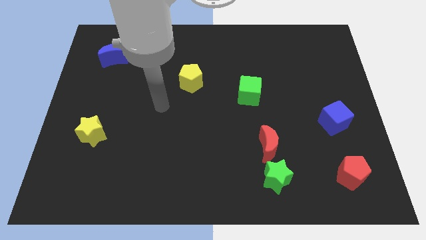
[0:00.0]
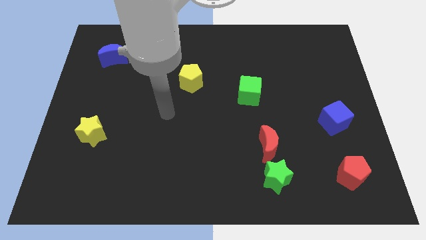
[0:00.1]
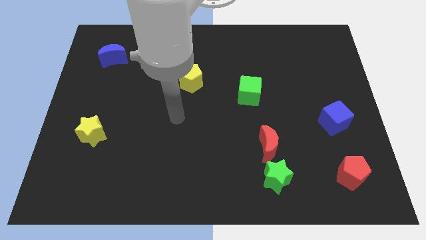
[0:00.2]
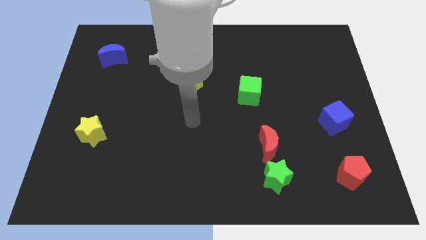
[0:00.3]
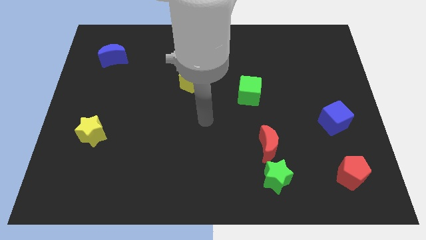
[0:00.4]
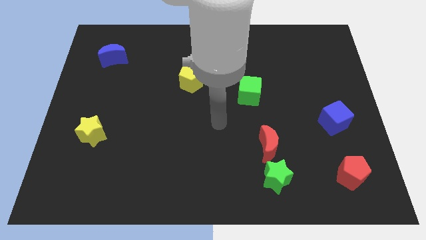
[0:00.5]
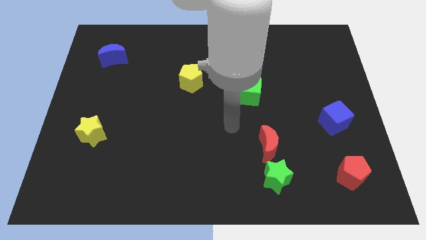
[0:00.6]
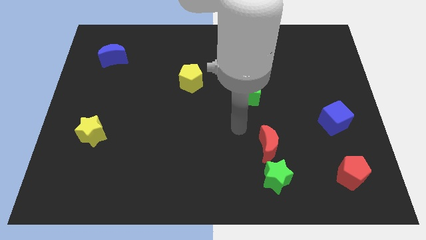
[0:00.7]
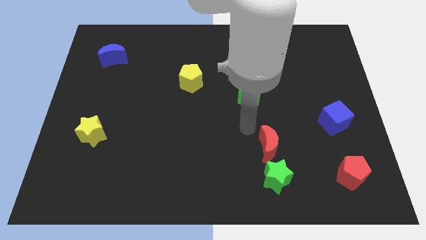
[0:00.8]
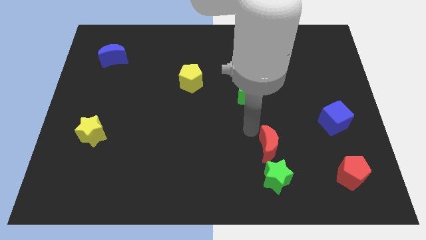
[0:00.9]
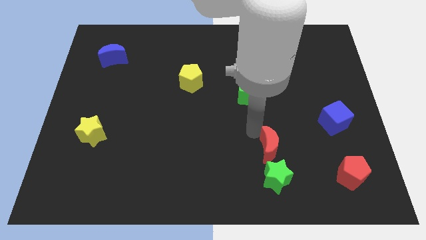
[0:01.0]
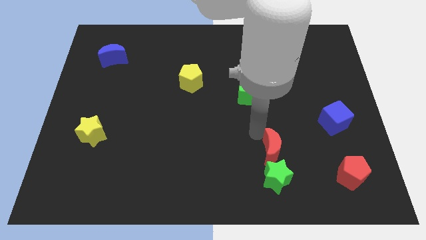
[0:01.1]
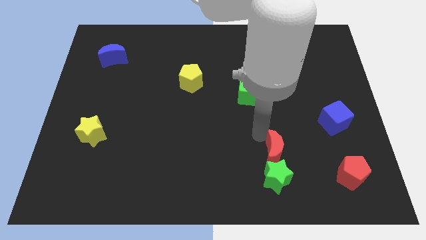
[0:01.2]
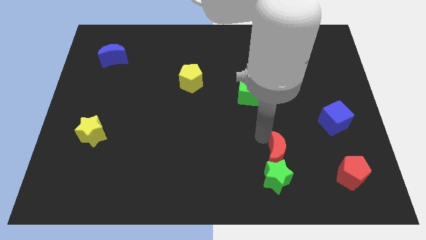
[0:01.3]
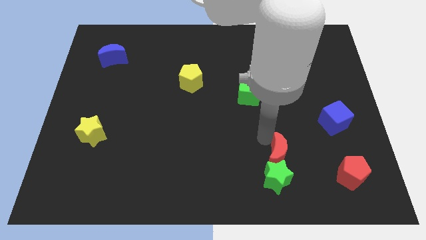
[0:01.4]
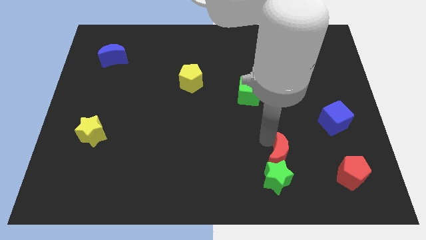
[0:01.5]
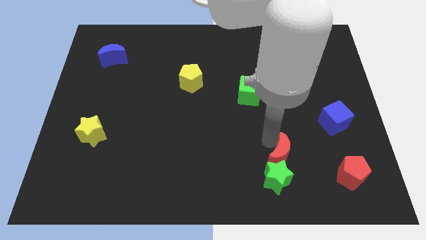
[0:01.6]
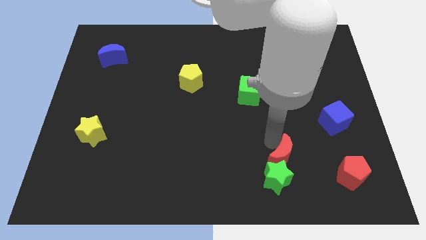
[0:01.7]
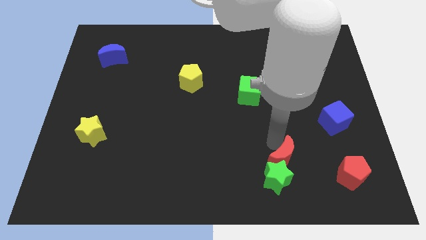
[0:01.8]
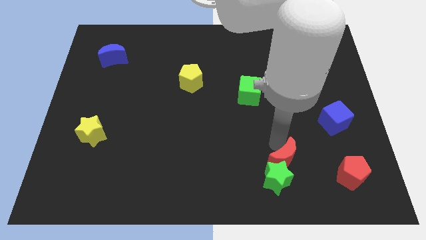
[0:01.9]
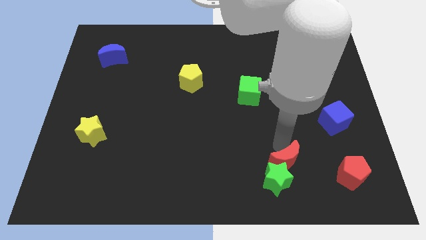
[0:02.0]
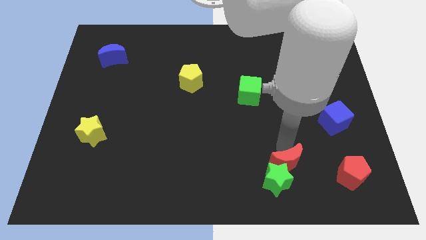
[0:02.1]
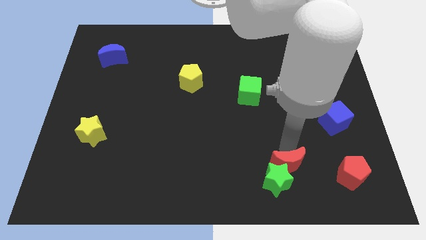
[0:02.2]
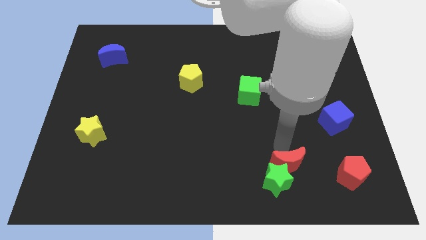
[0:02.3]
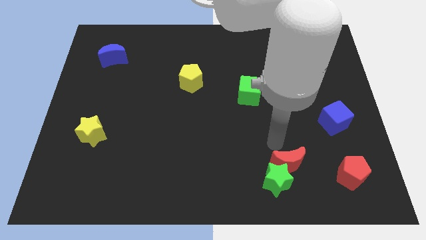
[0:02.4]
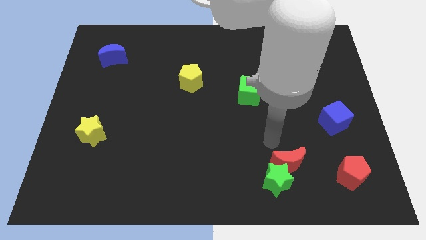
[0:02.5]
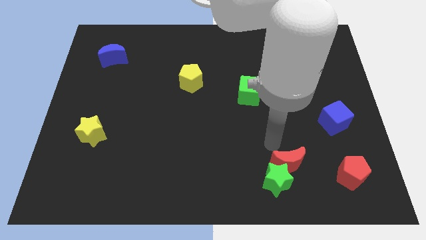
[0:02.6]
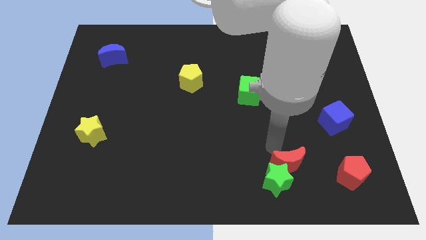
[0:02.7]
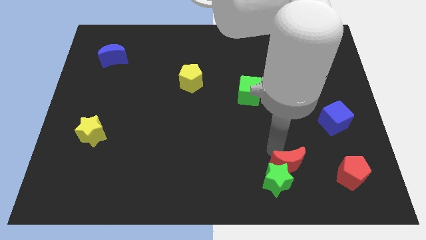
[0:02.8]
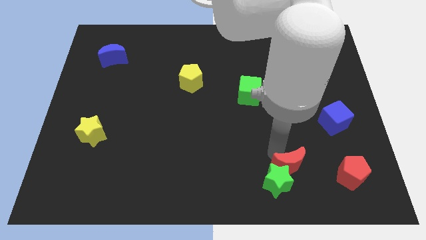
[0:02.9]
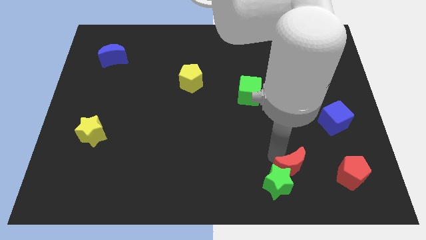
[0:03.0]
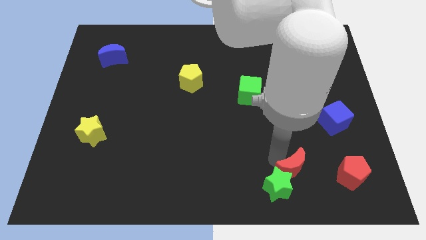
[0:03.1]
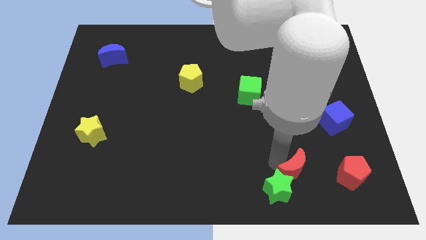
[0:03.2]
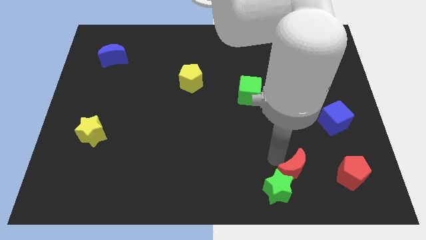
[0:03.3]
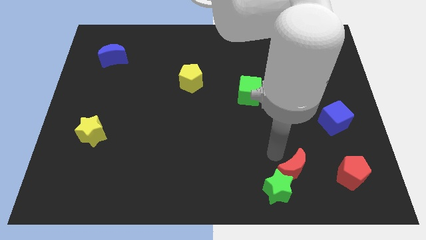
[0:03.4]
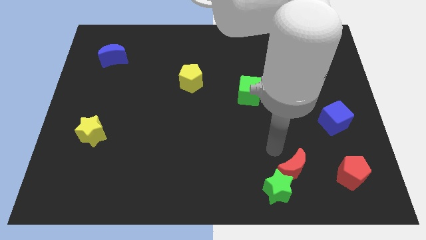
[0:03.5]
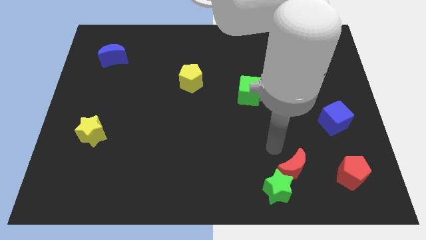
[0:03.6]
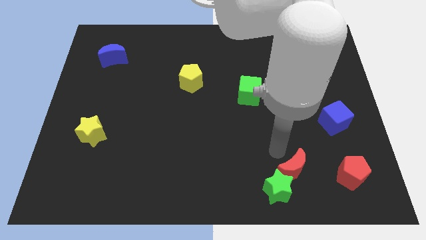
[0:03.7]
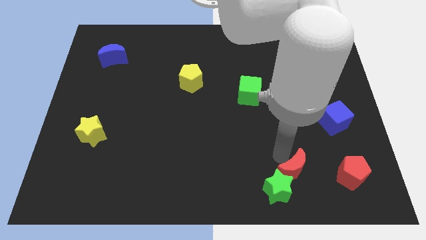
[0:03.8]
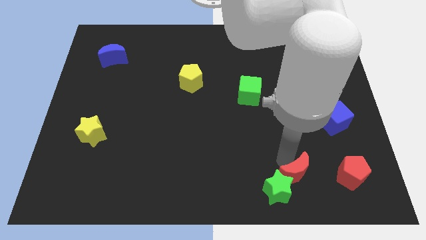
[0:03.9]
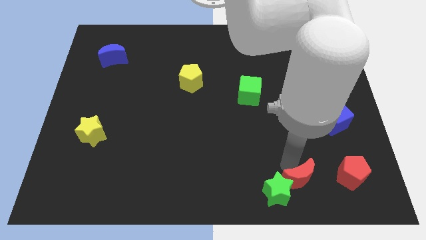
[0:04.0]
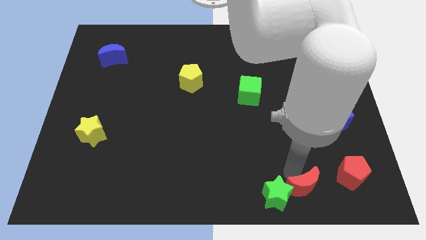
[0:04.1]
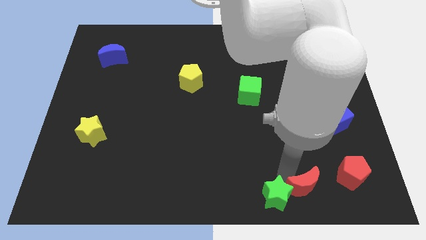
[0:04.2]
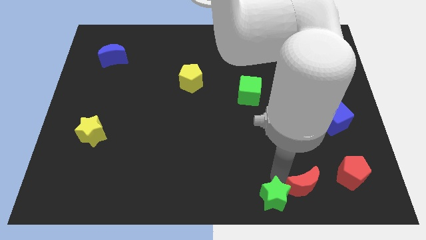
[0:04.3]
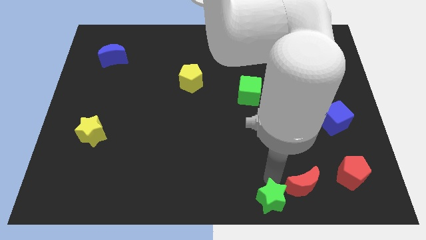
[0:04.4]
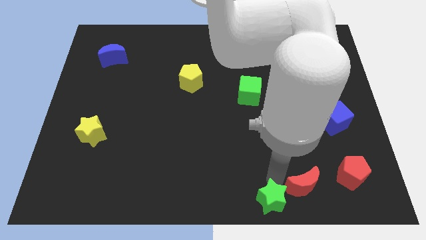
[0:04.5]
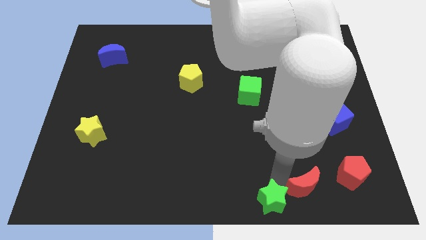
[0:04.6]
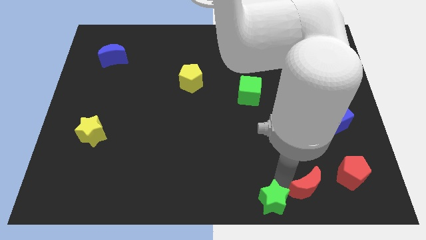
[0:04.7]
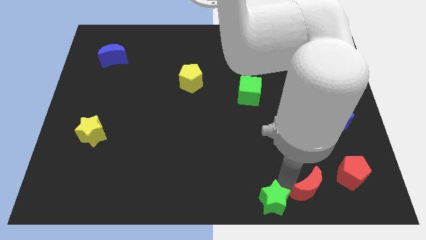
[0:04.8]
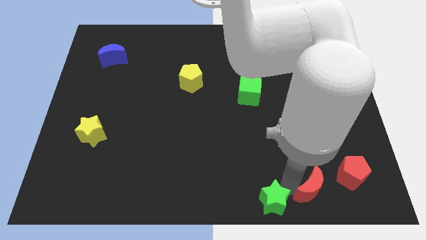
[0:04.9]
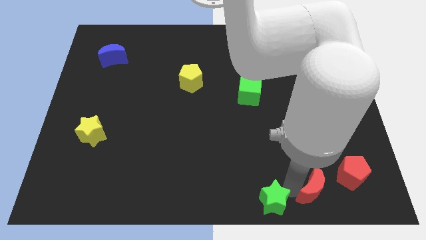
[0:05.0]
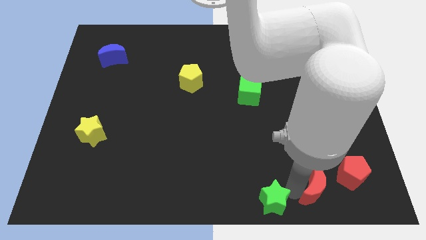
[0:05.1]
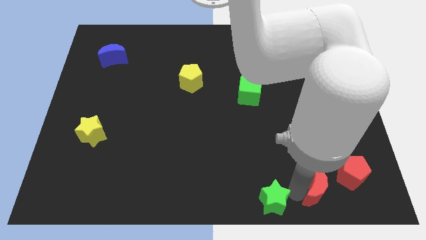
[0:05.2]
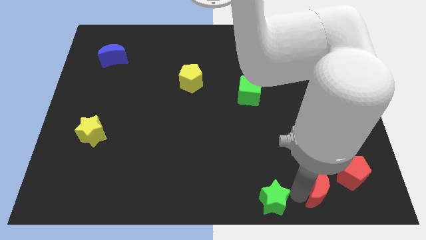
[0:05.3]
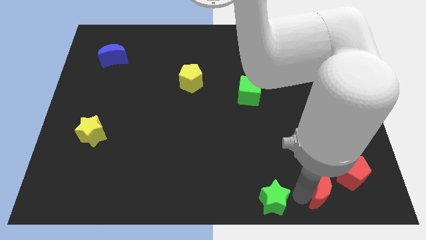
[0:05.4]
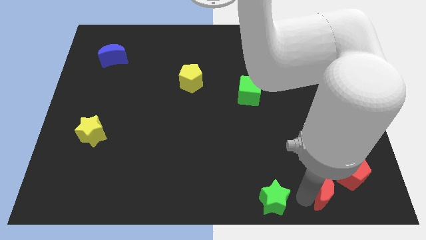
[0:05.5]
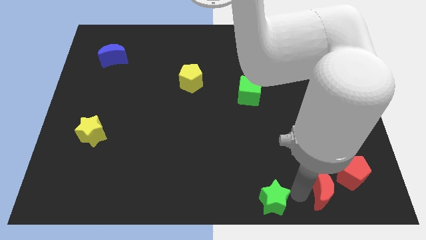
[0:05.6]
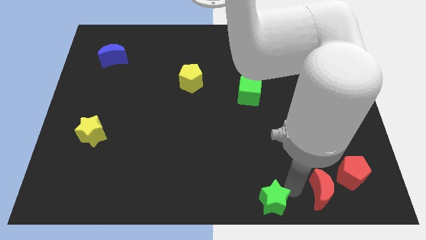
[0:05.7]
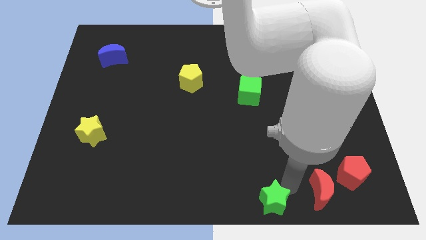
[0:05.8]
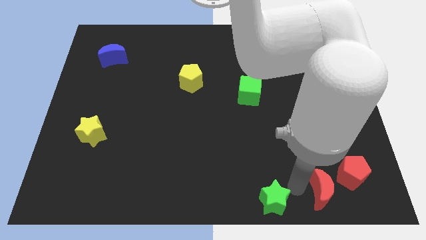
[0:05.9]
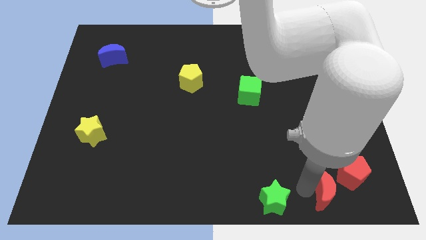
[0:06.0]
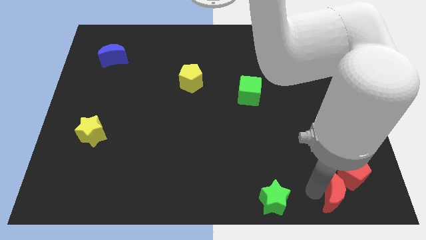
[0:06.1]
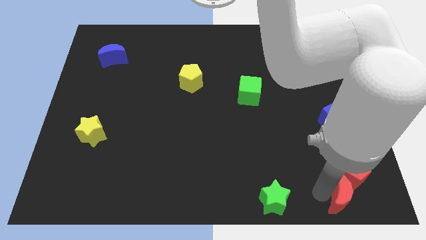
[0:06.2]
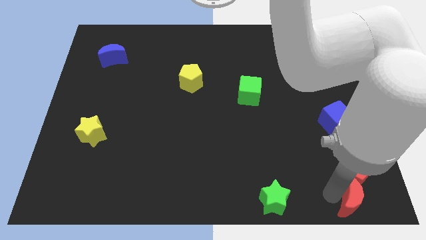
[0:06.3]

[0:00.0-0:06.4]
move the red moon to the bottom right corner
